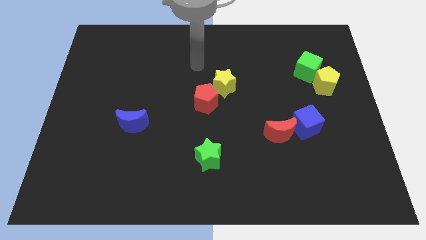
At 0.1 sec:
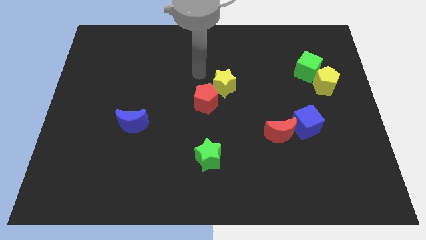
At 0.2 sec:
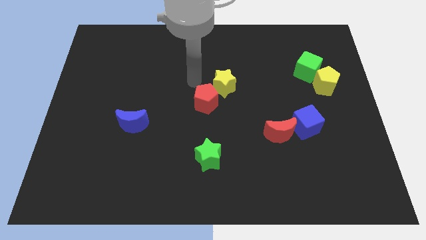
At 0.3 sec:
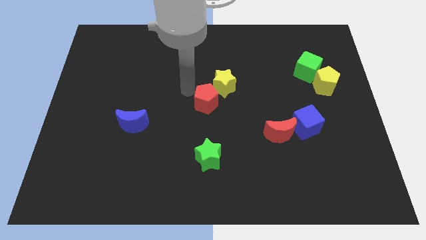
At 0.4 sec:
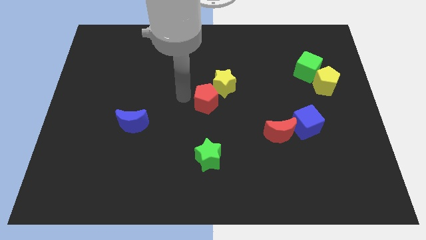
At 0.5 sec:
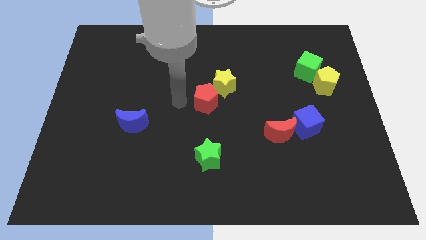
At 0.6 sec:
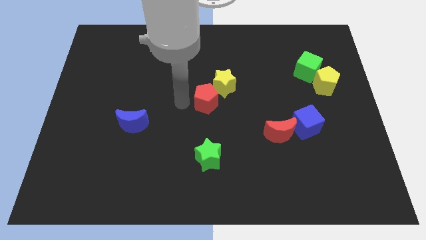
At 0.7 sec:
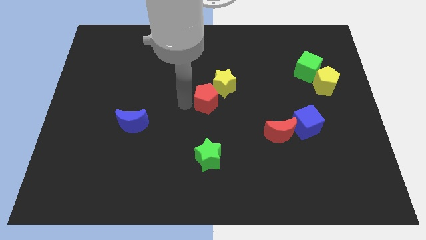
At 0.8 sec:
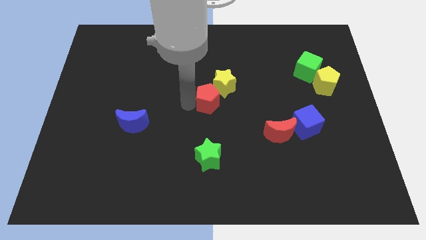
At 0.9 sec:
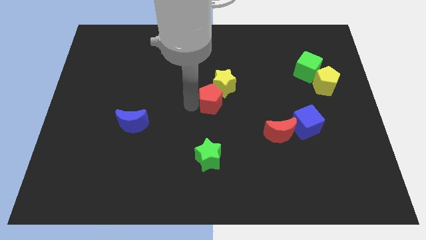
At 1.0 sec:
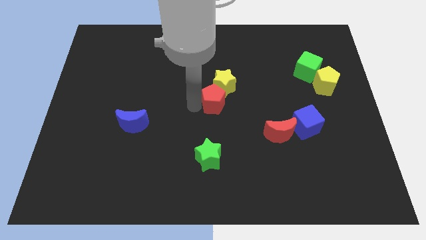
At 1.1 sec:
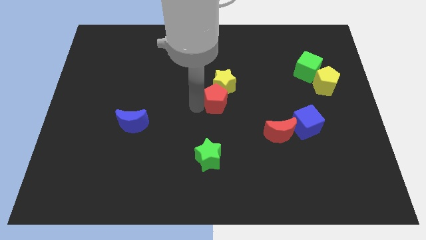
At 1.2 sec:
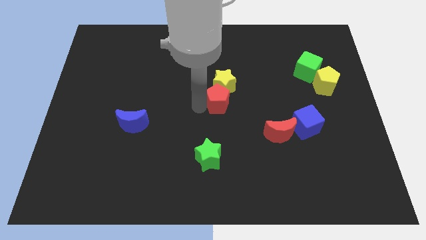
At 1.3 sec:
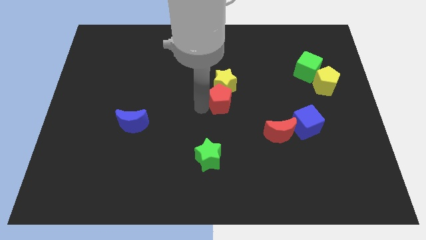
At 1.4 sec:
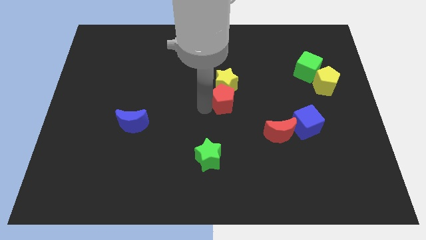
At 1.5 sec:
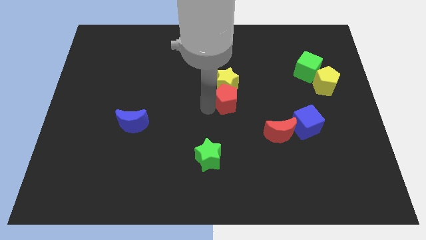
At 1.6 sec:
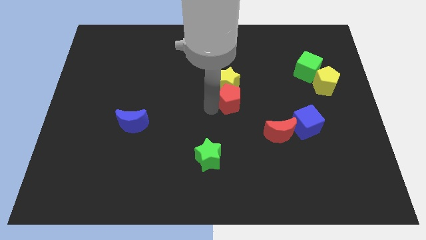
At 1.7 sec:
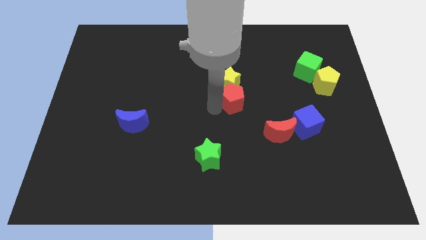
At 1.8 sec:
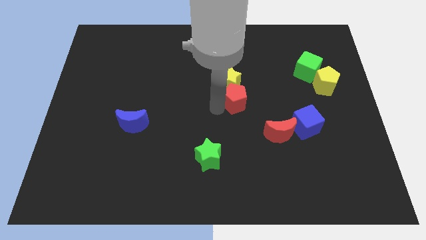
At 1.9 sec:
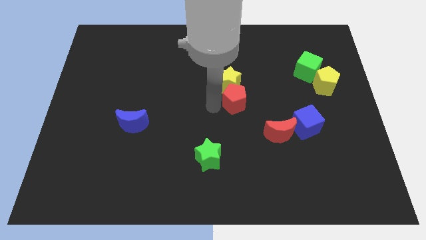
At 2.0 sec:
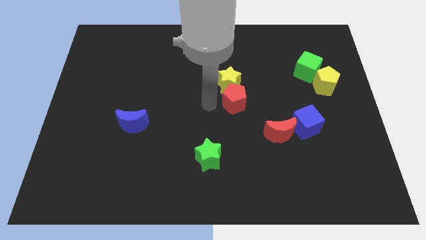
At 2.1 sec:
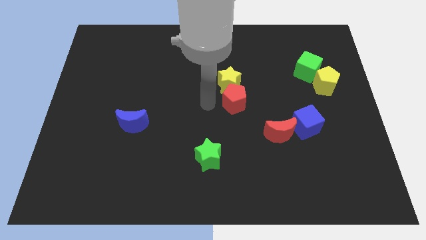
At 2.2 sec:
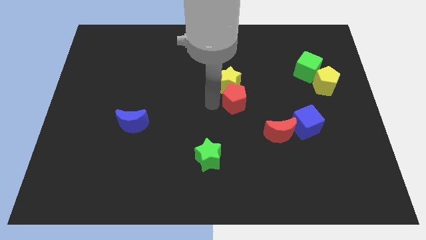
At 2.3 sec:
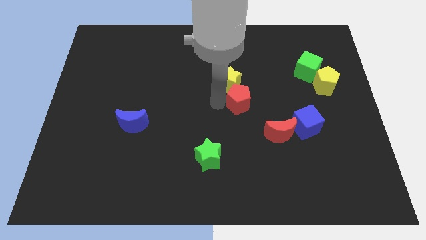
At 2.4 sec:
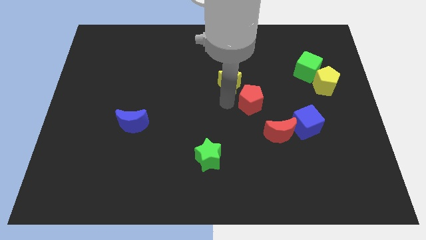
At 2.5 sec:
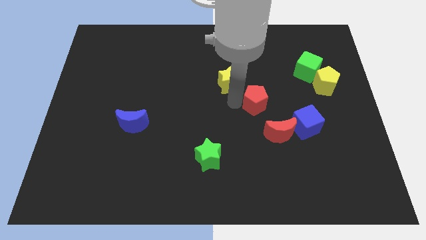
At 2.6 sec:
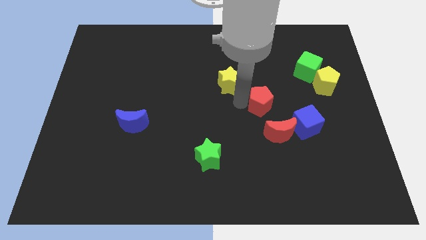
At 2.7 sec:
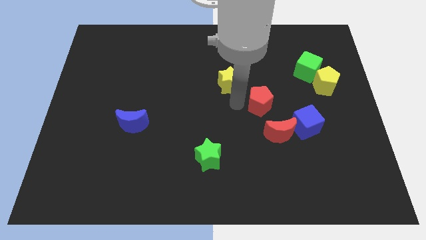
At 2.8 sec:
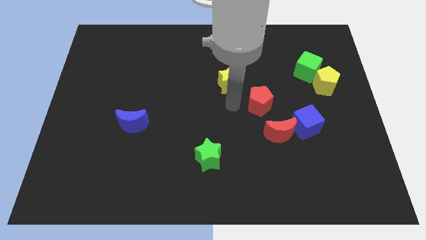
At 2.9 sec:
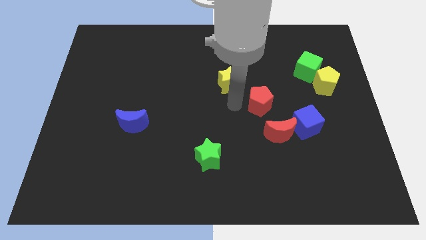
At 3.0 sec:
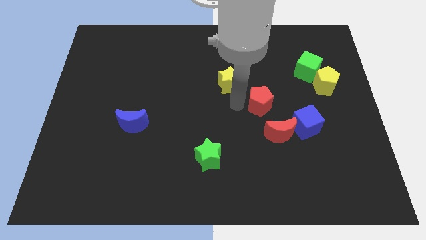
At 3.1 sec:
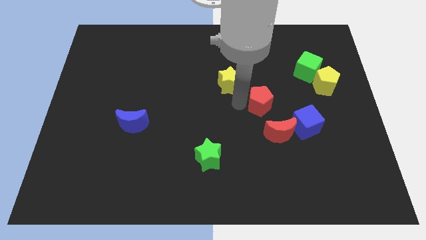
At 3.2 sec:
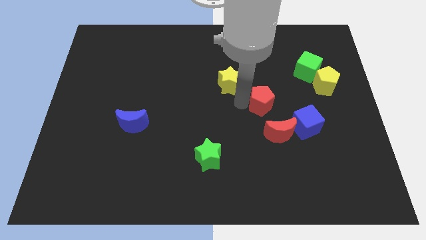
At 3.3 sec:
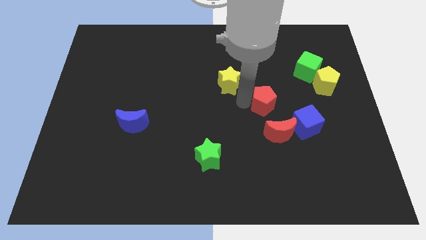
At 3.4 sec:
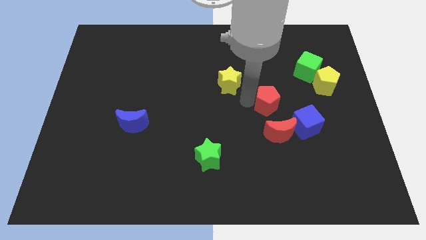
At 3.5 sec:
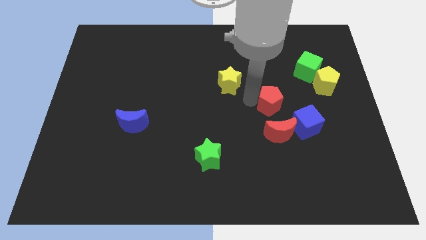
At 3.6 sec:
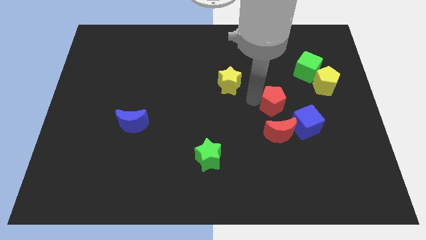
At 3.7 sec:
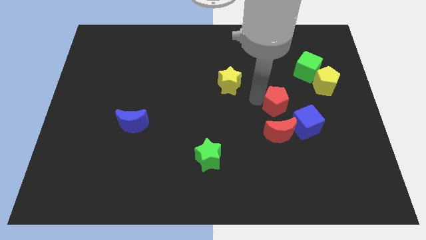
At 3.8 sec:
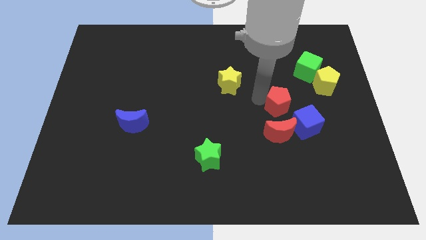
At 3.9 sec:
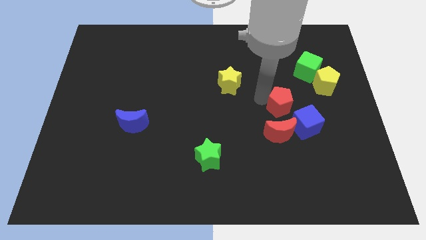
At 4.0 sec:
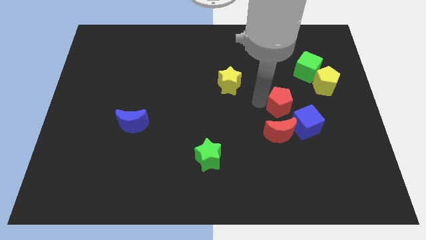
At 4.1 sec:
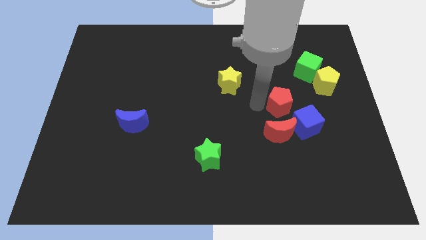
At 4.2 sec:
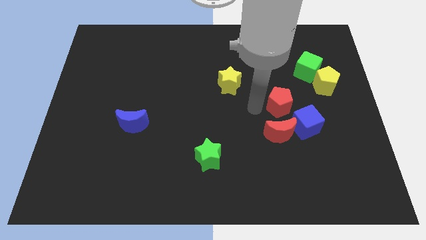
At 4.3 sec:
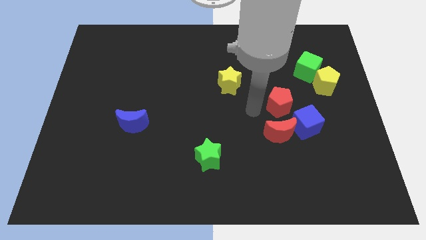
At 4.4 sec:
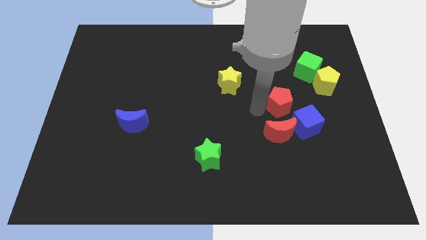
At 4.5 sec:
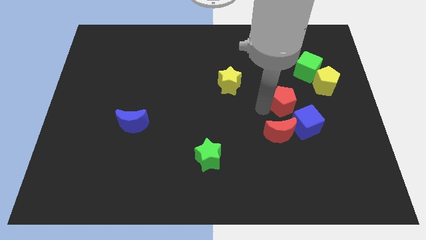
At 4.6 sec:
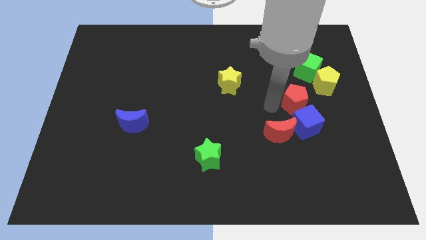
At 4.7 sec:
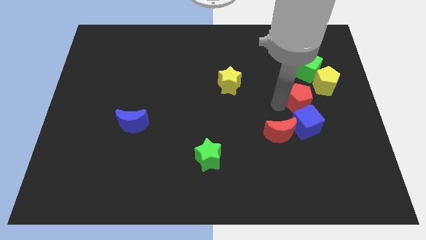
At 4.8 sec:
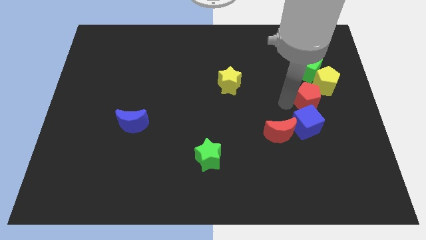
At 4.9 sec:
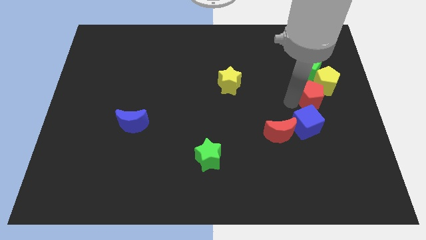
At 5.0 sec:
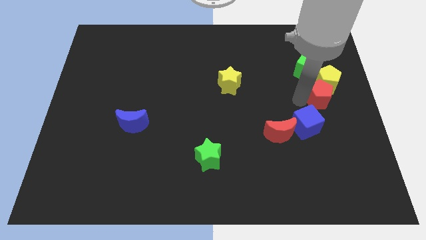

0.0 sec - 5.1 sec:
push the red pentagon to the center right

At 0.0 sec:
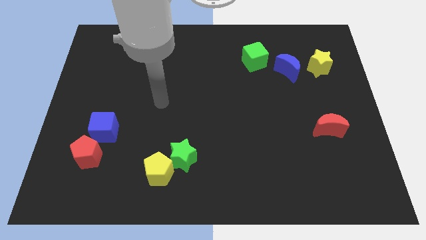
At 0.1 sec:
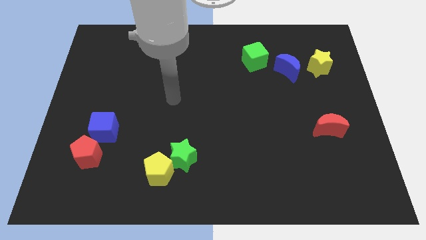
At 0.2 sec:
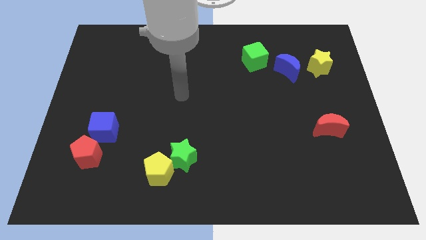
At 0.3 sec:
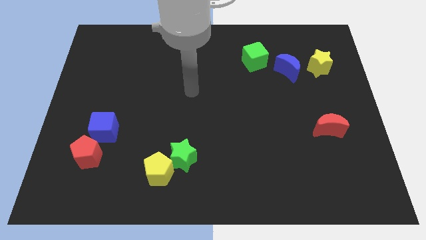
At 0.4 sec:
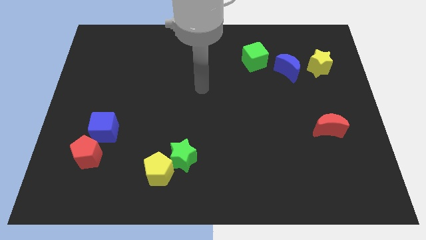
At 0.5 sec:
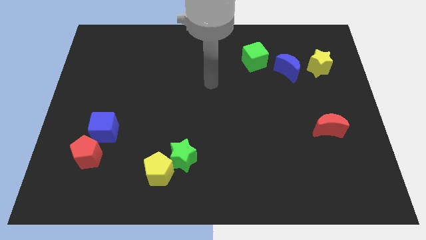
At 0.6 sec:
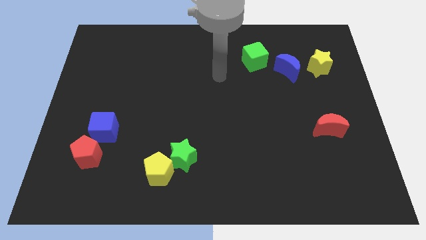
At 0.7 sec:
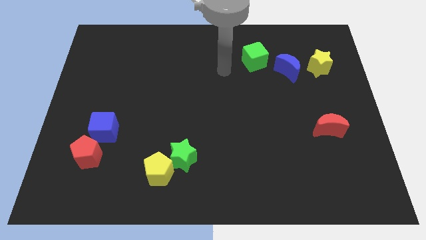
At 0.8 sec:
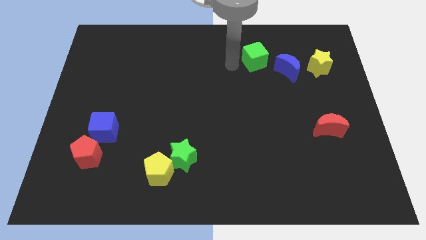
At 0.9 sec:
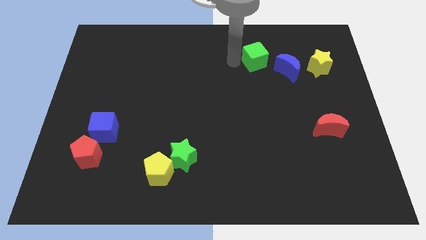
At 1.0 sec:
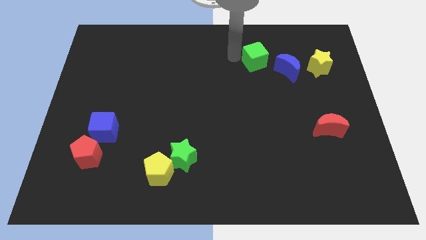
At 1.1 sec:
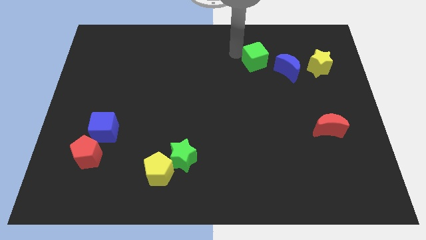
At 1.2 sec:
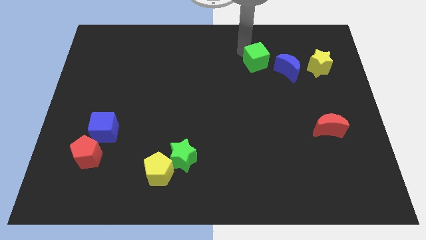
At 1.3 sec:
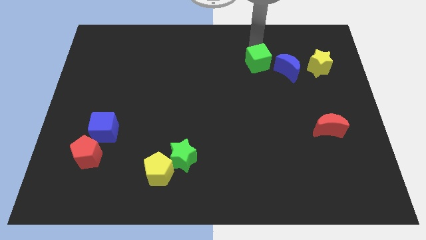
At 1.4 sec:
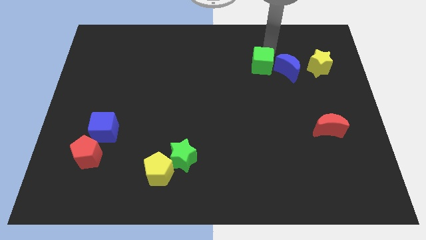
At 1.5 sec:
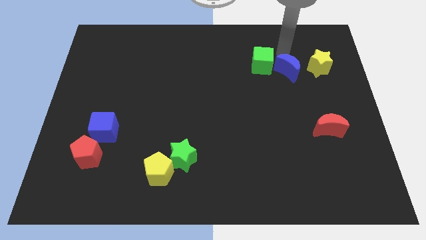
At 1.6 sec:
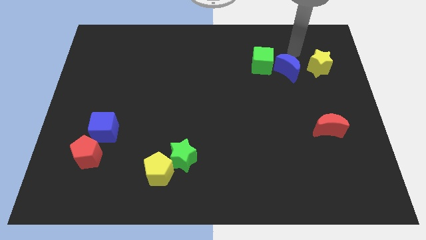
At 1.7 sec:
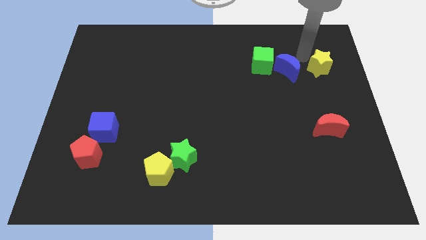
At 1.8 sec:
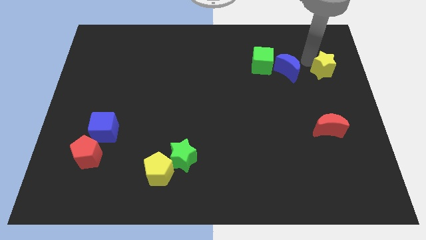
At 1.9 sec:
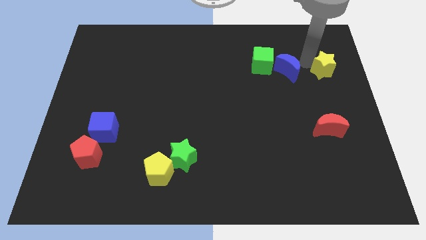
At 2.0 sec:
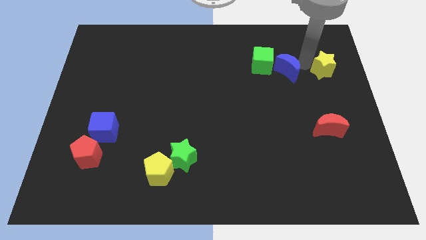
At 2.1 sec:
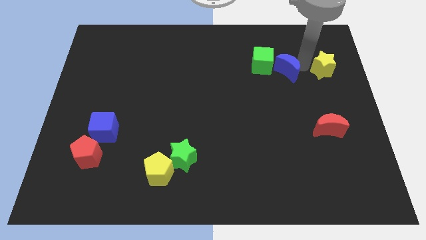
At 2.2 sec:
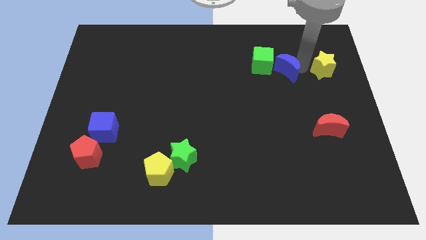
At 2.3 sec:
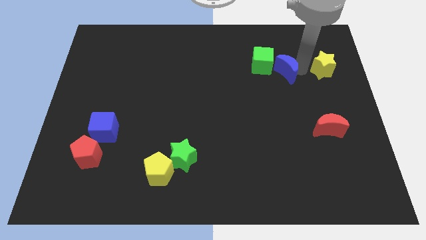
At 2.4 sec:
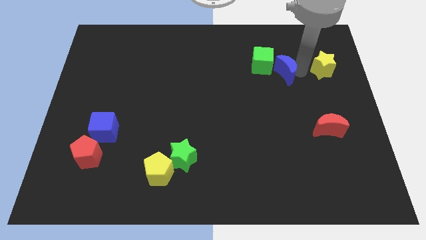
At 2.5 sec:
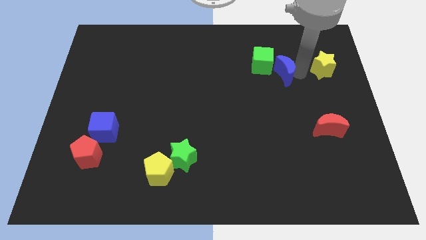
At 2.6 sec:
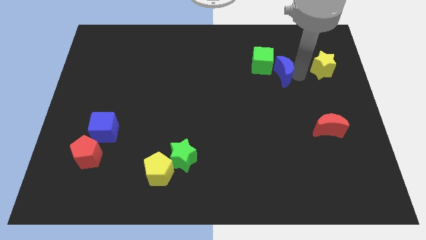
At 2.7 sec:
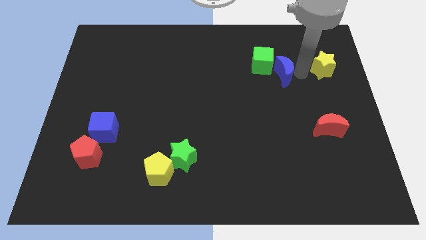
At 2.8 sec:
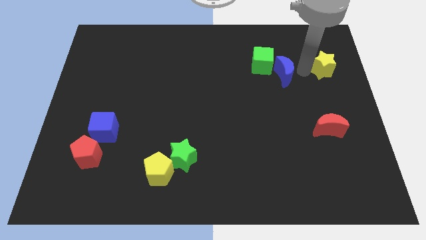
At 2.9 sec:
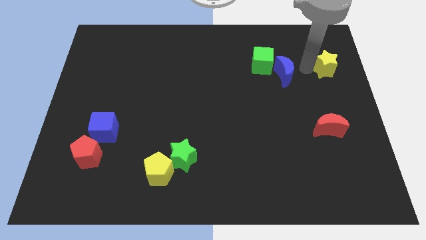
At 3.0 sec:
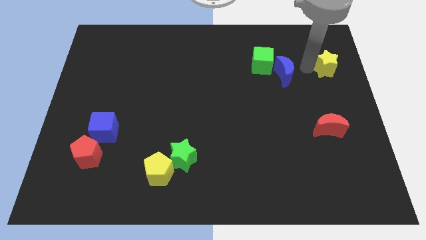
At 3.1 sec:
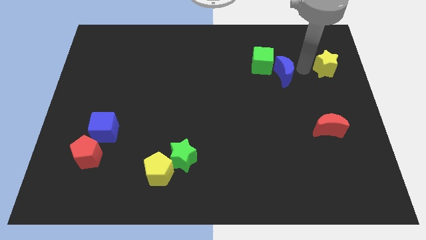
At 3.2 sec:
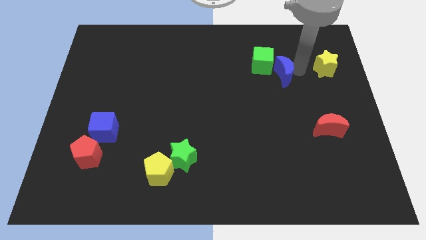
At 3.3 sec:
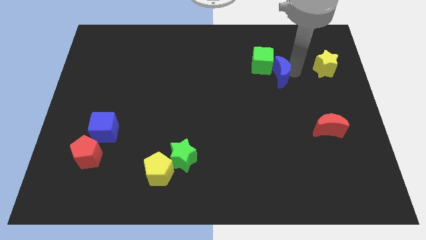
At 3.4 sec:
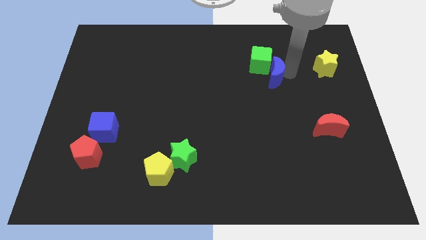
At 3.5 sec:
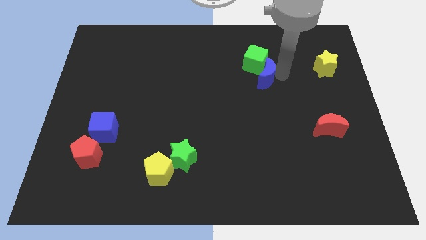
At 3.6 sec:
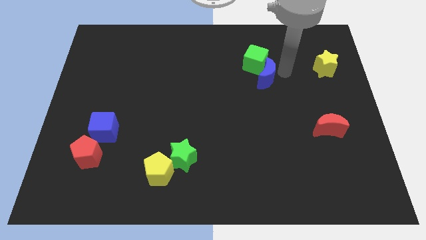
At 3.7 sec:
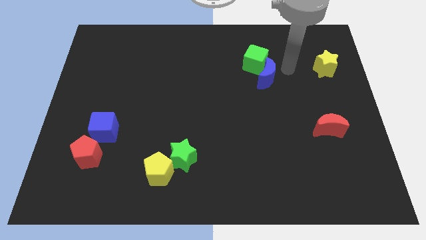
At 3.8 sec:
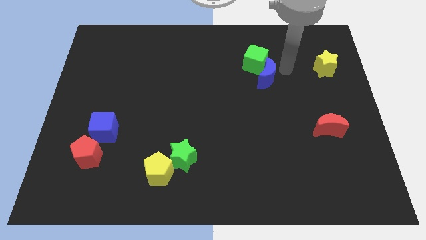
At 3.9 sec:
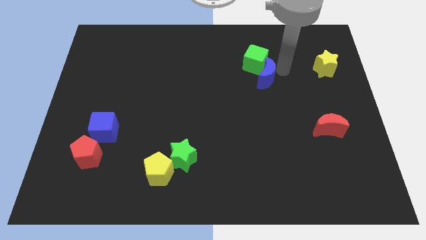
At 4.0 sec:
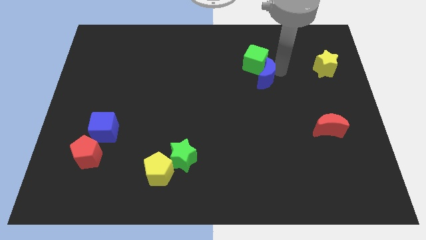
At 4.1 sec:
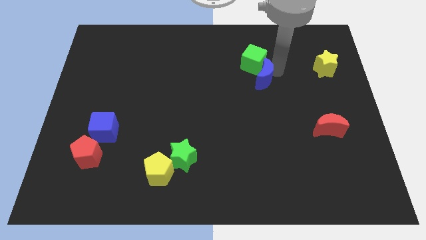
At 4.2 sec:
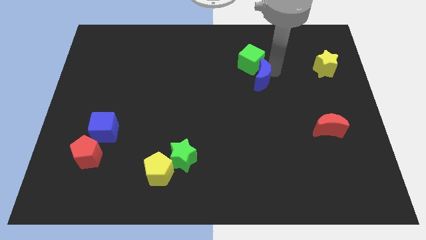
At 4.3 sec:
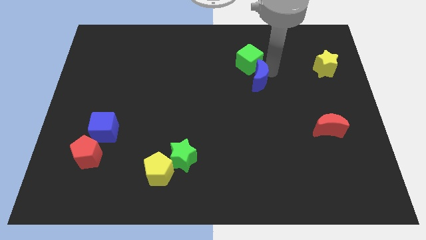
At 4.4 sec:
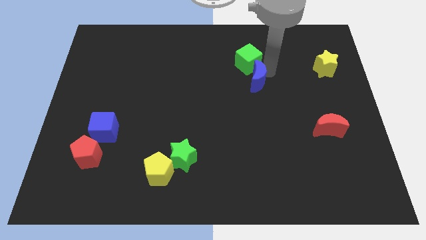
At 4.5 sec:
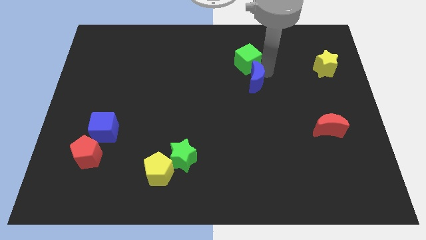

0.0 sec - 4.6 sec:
put the blue moon to the middle of the board
